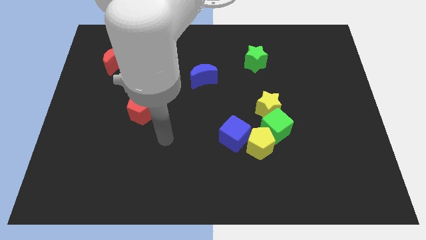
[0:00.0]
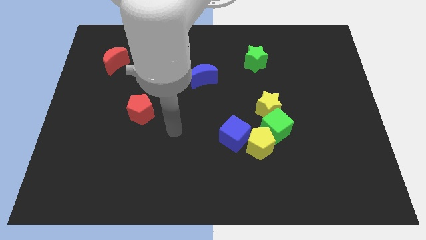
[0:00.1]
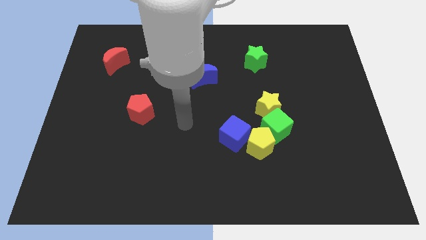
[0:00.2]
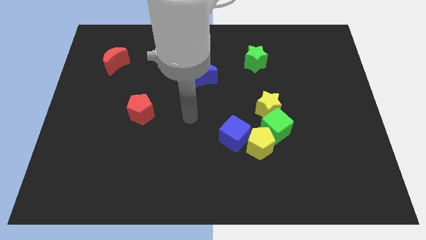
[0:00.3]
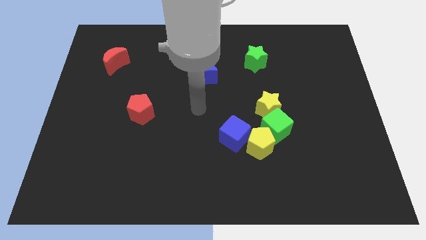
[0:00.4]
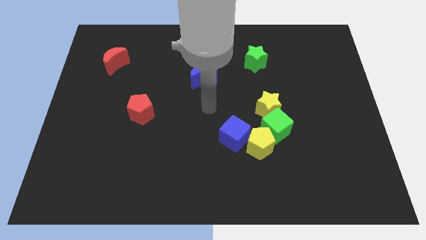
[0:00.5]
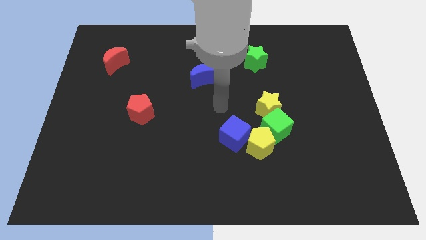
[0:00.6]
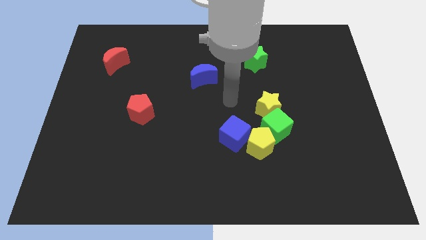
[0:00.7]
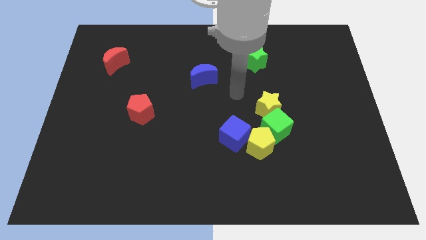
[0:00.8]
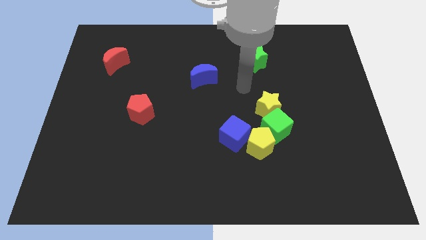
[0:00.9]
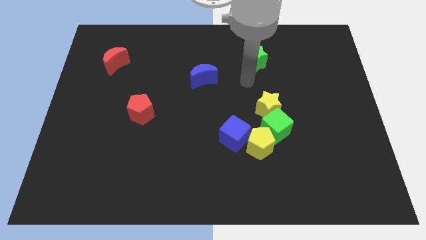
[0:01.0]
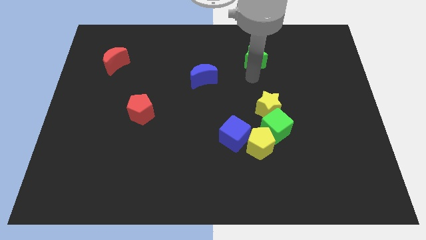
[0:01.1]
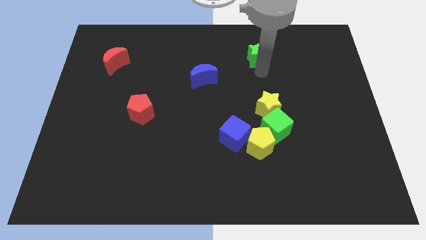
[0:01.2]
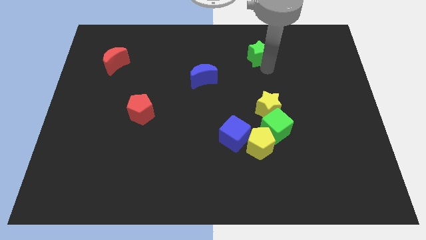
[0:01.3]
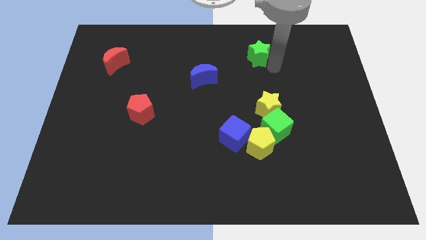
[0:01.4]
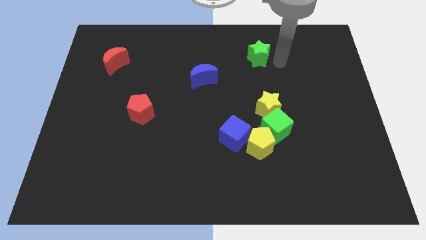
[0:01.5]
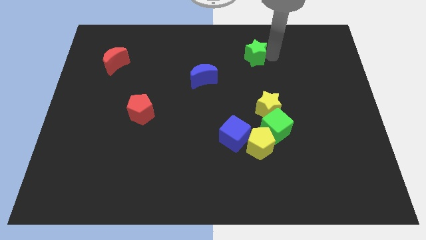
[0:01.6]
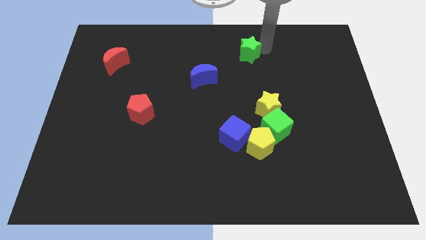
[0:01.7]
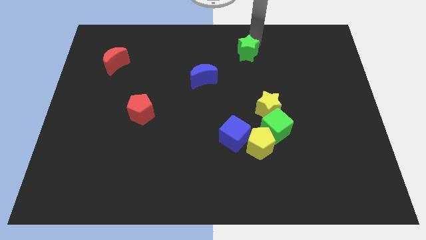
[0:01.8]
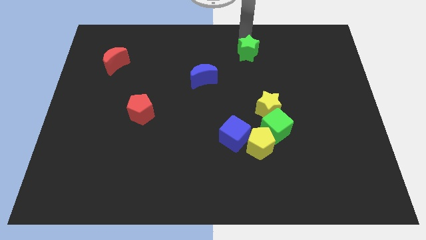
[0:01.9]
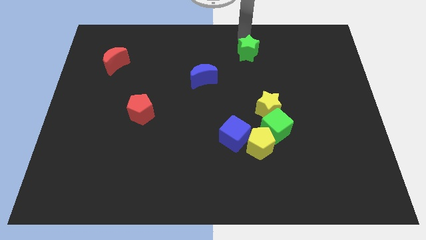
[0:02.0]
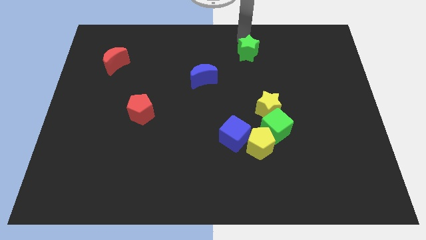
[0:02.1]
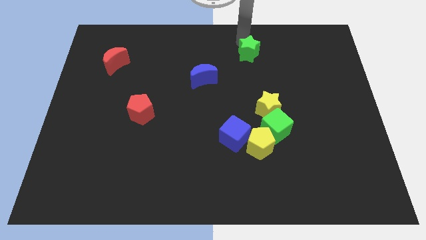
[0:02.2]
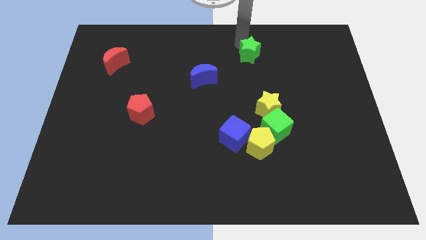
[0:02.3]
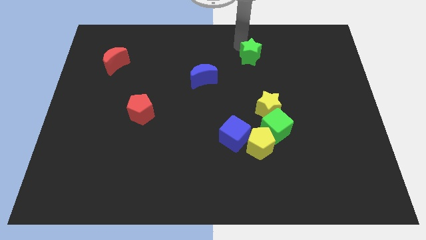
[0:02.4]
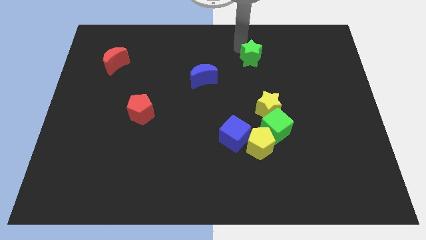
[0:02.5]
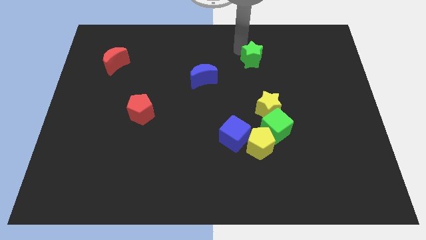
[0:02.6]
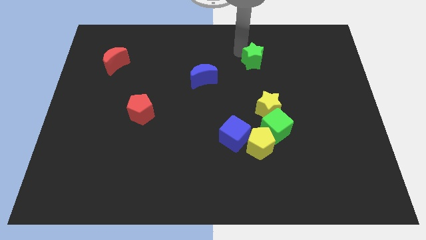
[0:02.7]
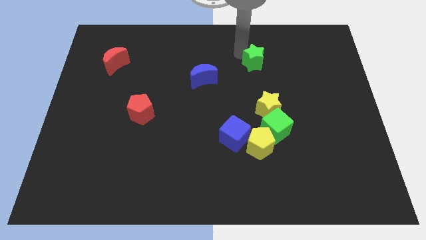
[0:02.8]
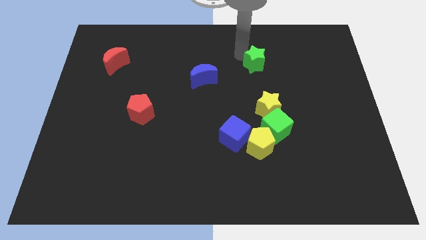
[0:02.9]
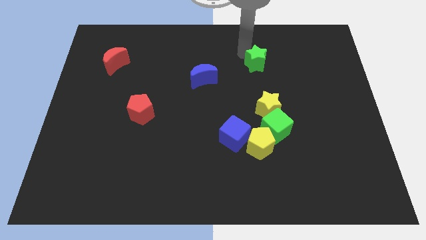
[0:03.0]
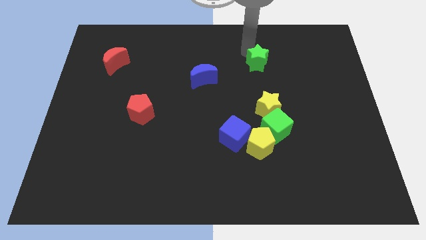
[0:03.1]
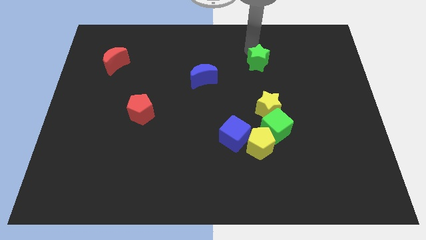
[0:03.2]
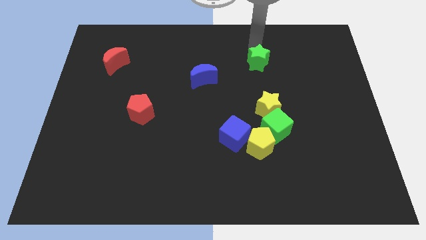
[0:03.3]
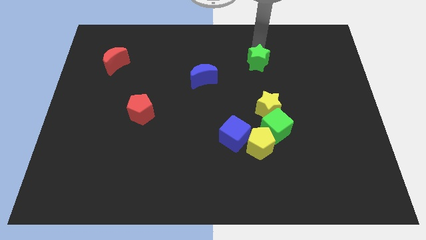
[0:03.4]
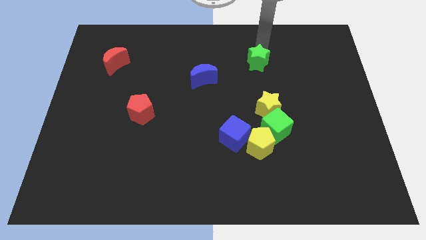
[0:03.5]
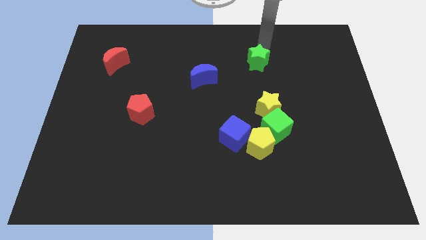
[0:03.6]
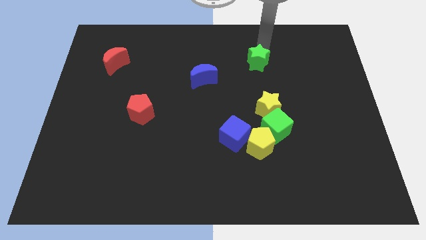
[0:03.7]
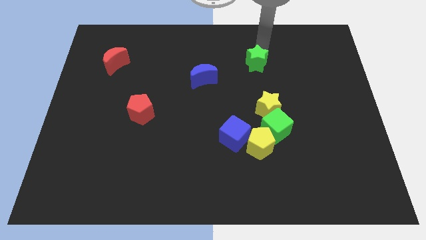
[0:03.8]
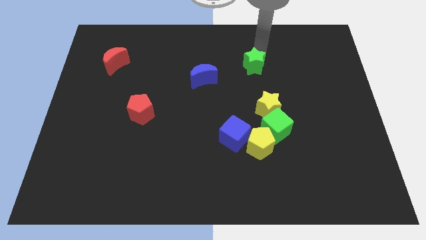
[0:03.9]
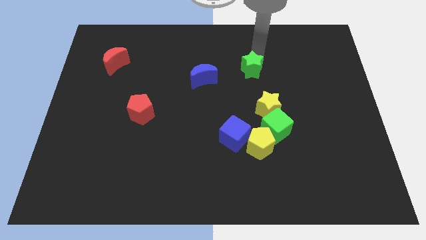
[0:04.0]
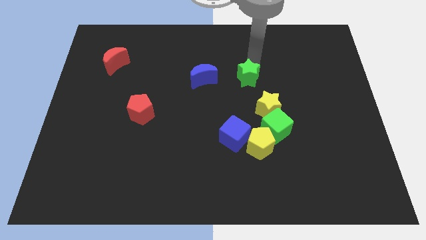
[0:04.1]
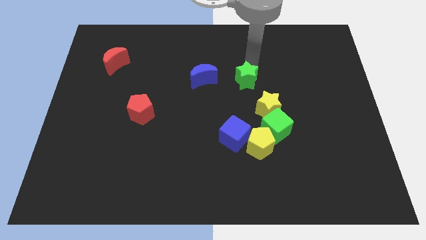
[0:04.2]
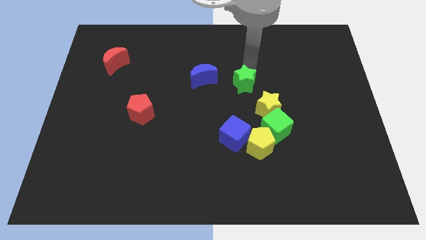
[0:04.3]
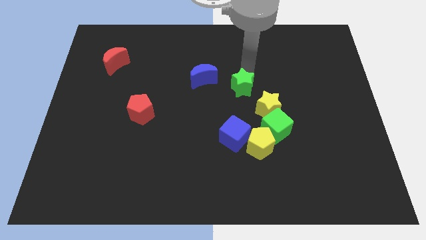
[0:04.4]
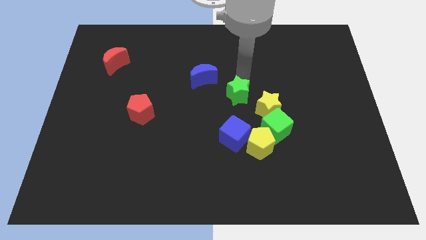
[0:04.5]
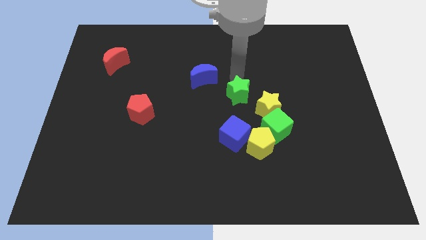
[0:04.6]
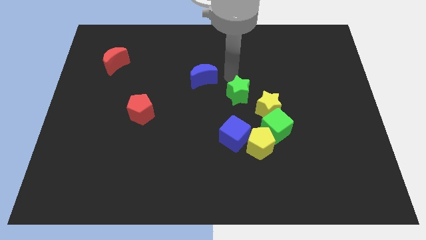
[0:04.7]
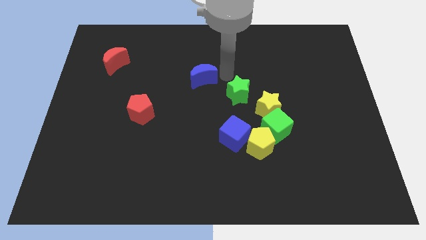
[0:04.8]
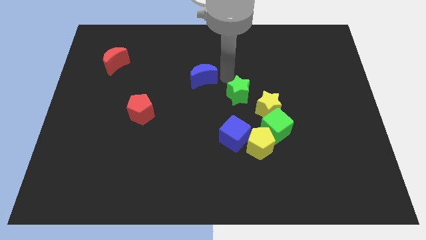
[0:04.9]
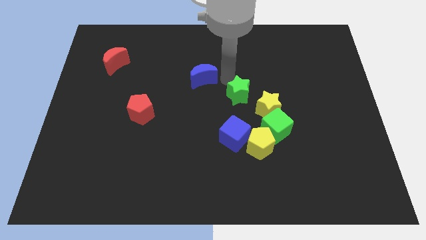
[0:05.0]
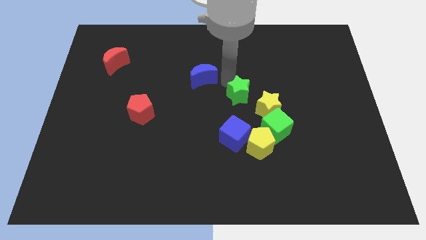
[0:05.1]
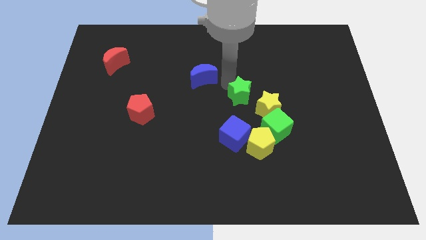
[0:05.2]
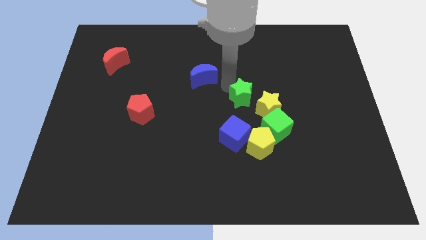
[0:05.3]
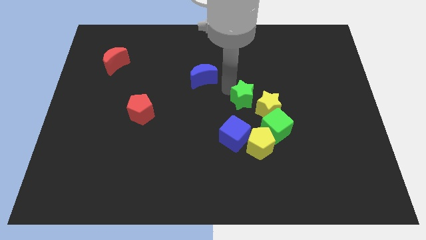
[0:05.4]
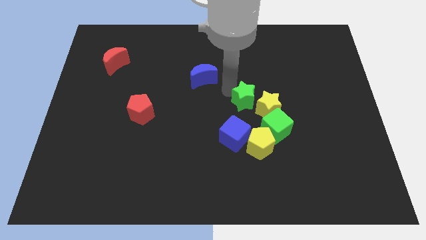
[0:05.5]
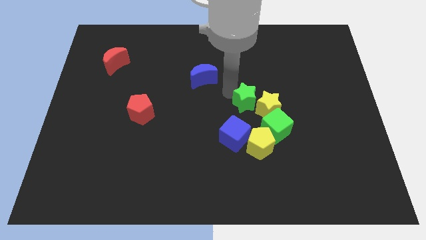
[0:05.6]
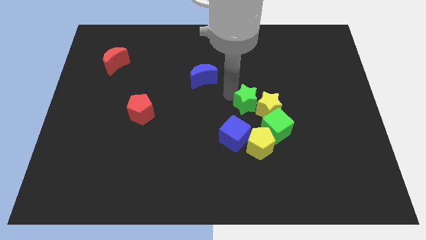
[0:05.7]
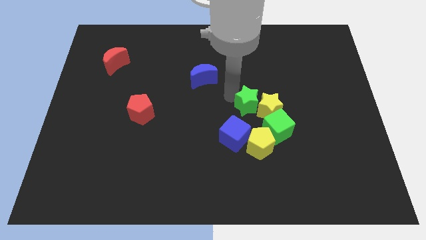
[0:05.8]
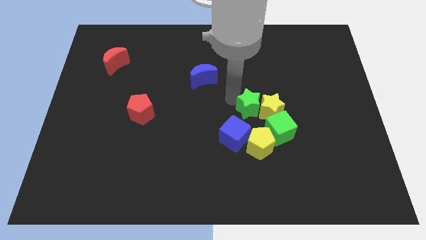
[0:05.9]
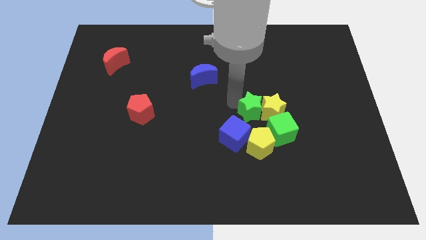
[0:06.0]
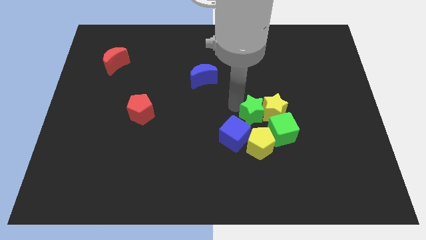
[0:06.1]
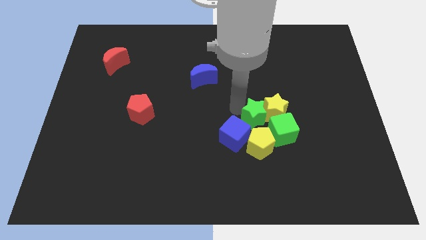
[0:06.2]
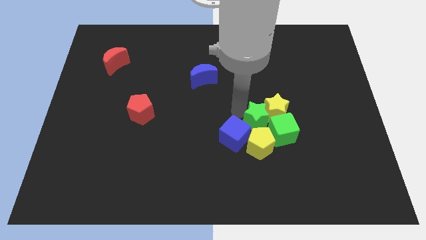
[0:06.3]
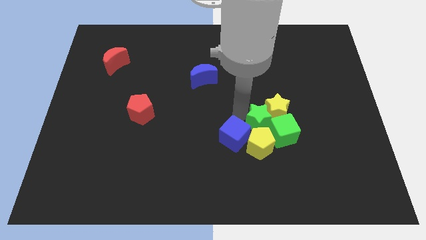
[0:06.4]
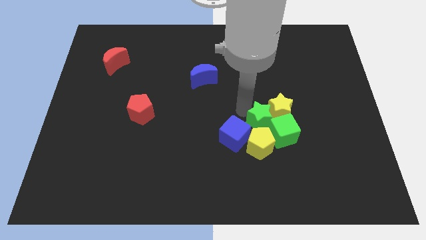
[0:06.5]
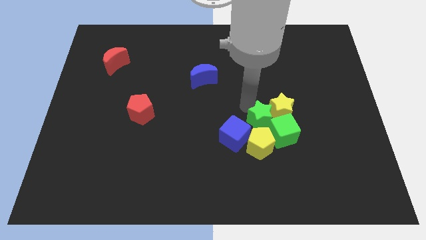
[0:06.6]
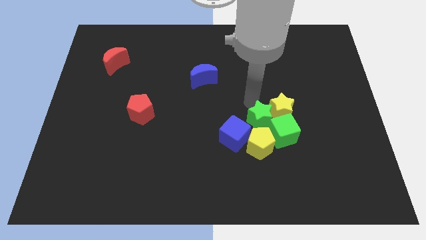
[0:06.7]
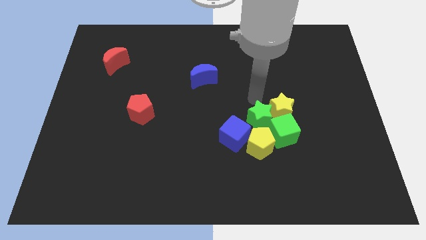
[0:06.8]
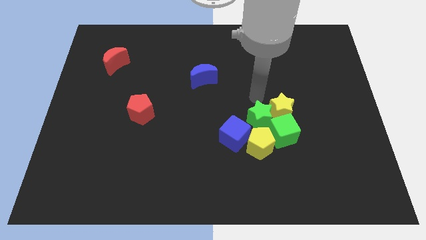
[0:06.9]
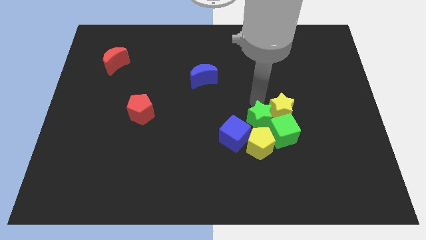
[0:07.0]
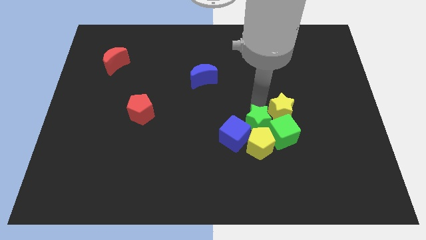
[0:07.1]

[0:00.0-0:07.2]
put the green star next to the yellow pentagon

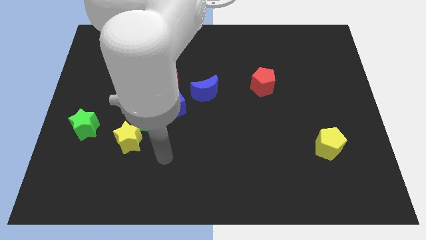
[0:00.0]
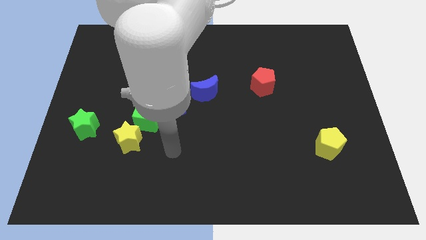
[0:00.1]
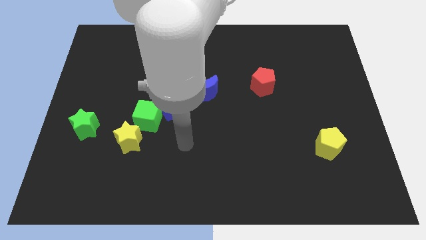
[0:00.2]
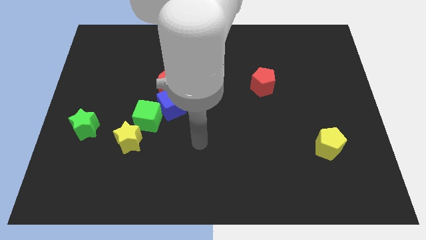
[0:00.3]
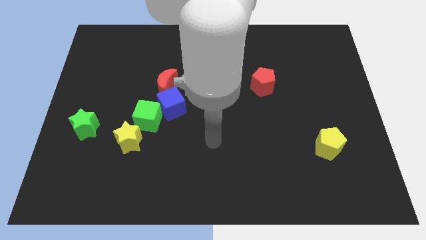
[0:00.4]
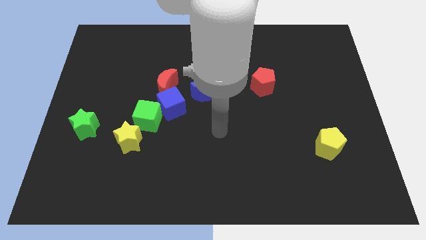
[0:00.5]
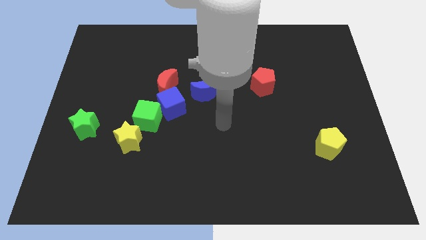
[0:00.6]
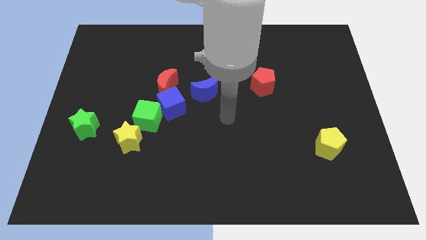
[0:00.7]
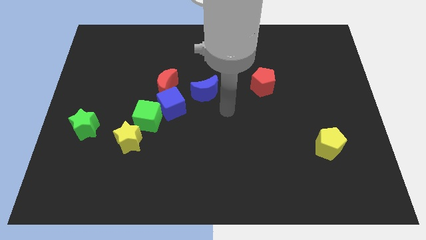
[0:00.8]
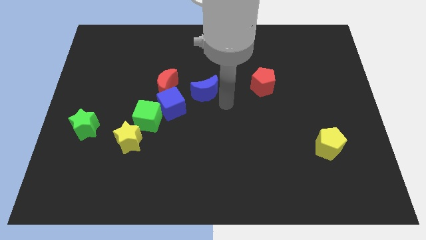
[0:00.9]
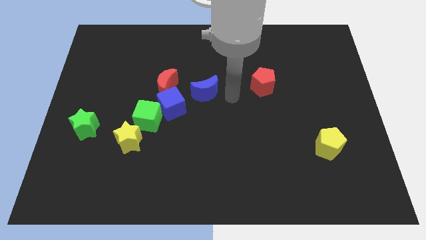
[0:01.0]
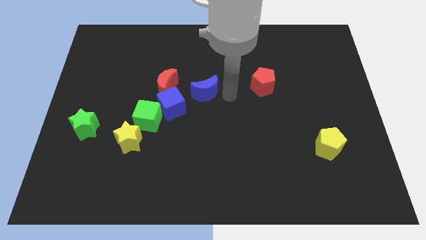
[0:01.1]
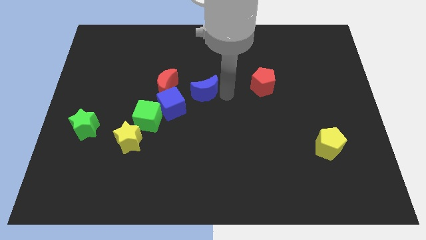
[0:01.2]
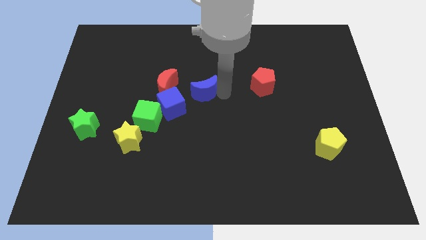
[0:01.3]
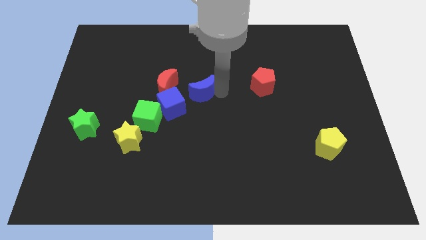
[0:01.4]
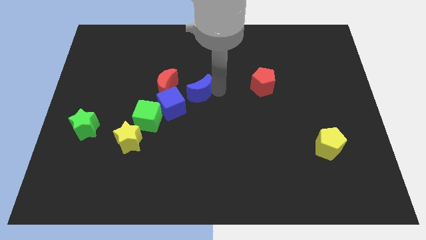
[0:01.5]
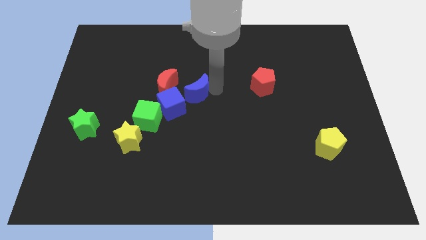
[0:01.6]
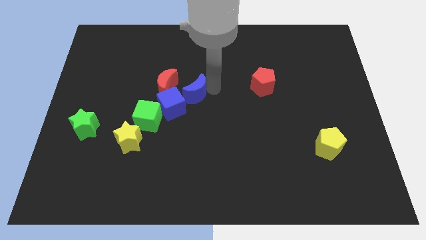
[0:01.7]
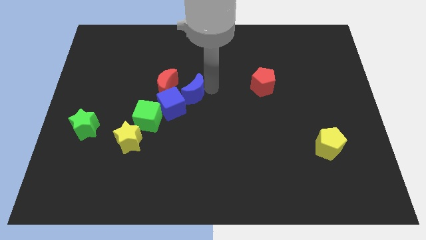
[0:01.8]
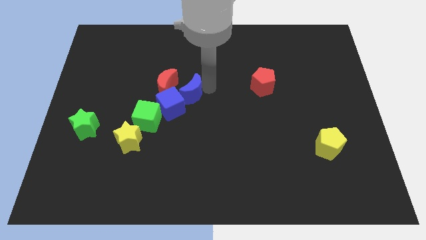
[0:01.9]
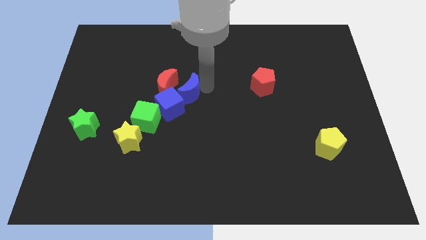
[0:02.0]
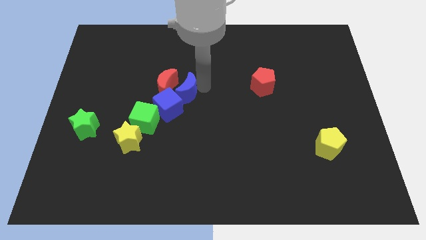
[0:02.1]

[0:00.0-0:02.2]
slide the blue moon to the red moon
